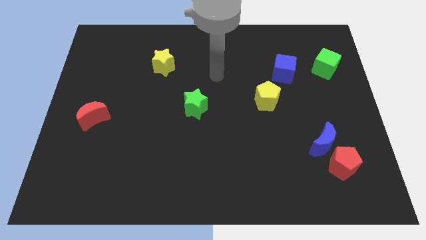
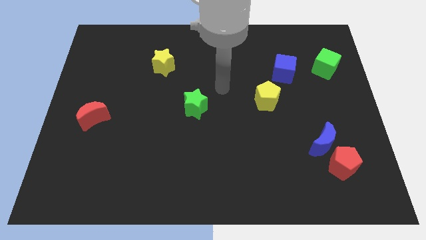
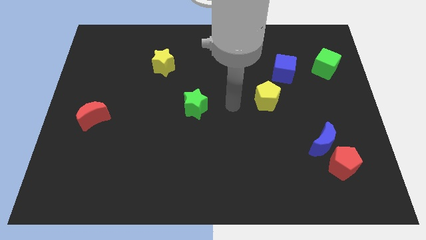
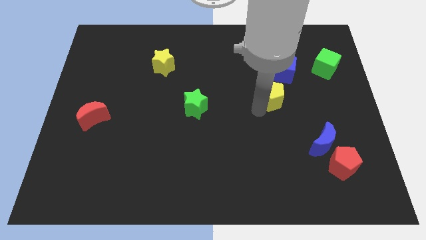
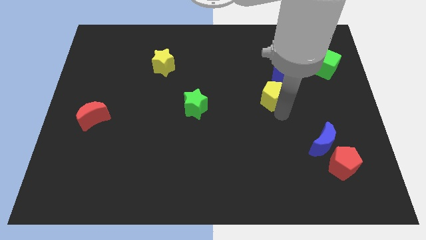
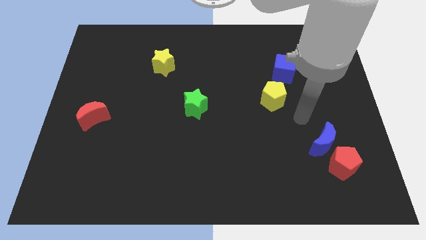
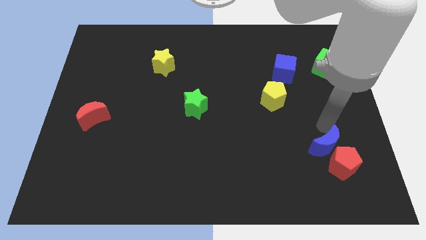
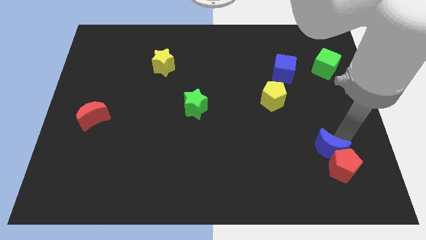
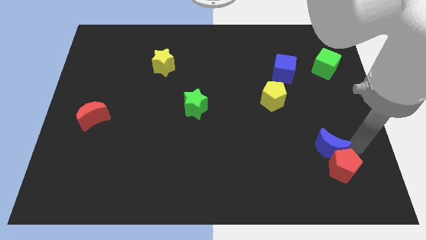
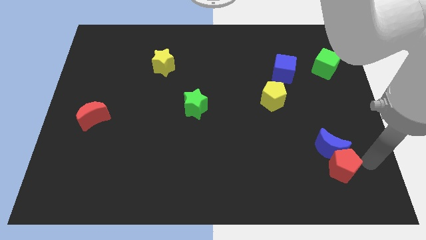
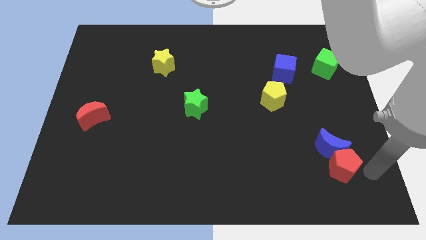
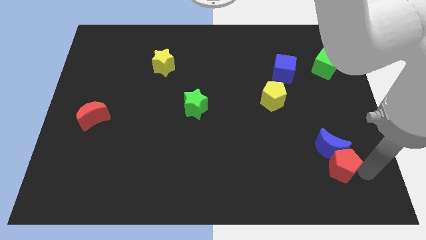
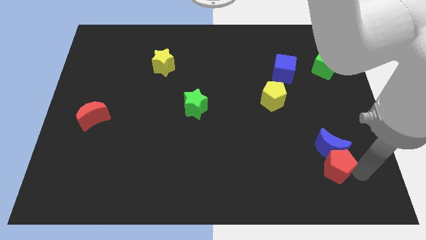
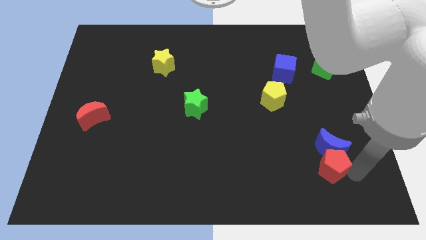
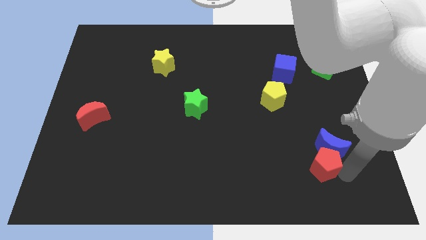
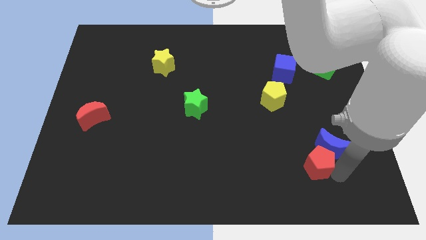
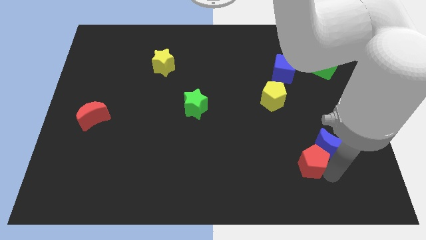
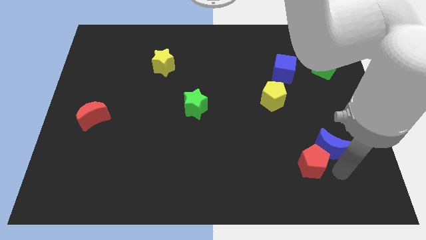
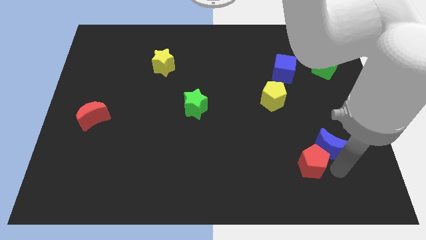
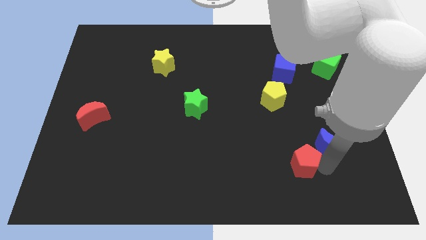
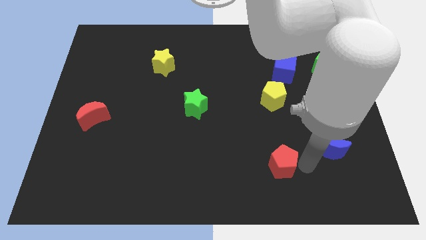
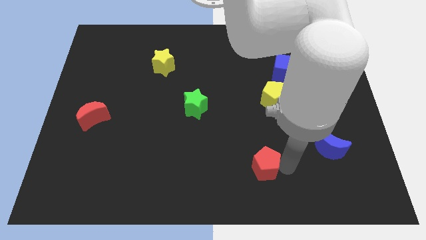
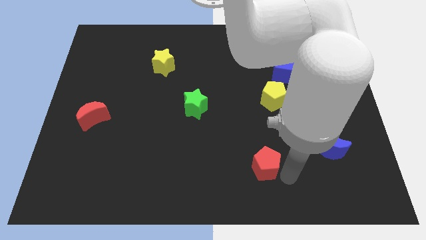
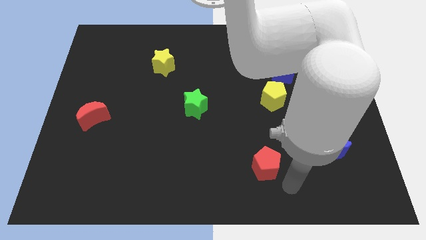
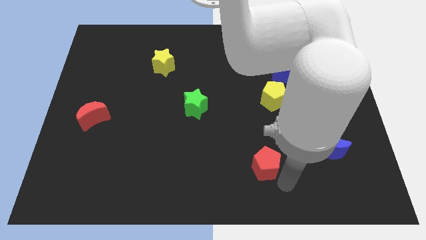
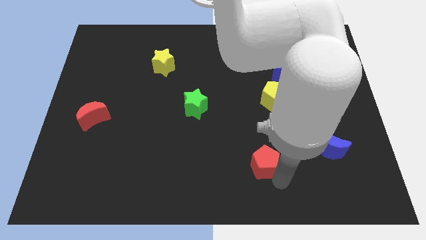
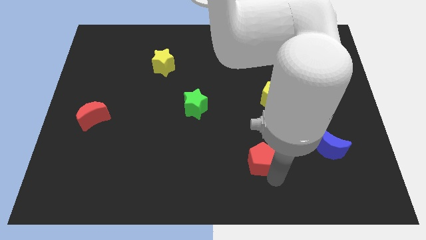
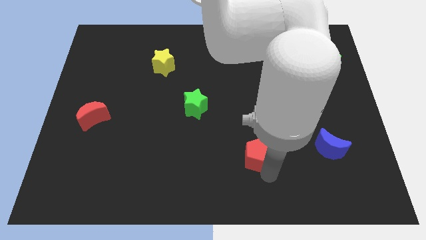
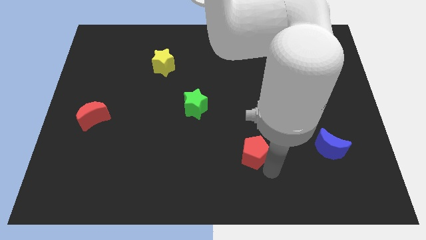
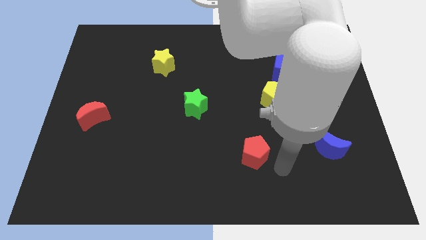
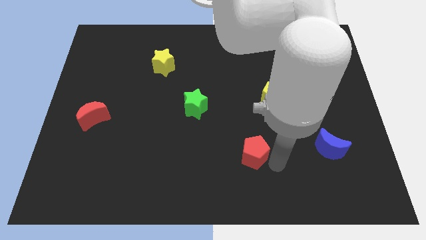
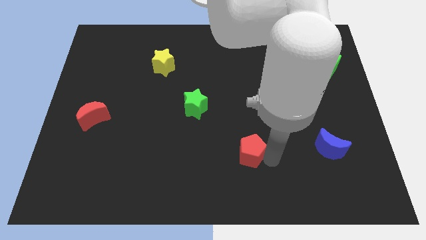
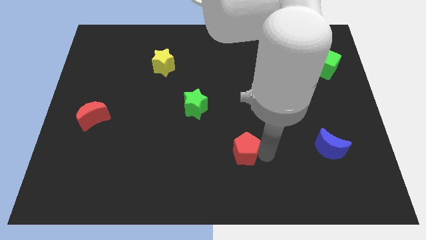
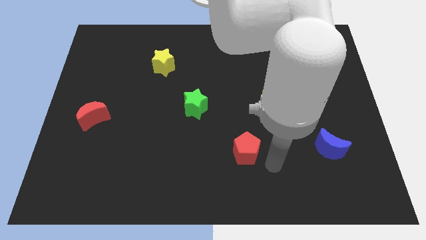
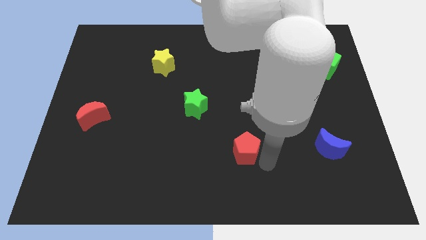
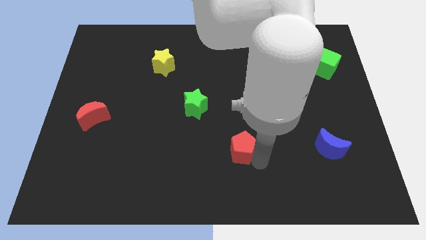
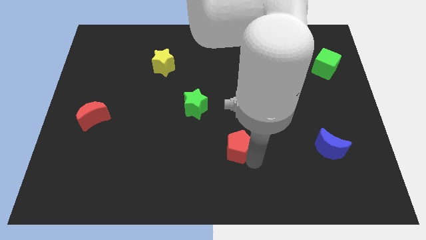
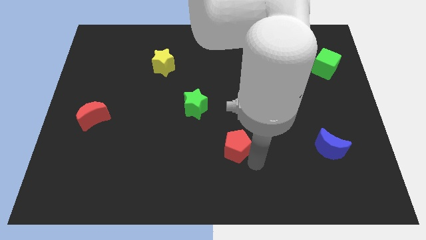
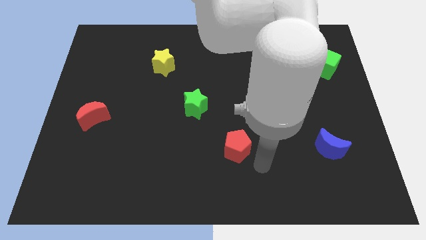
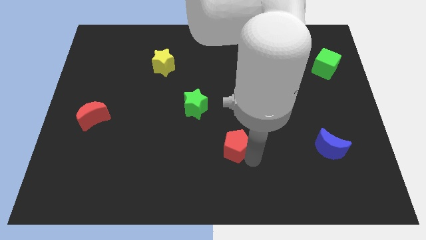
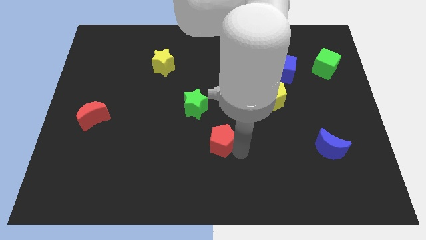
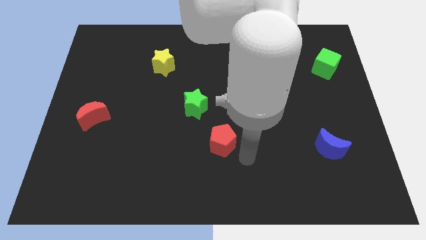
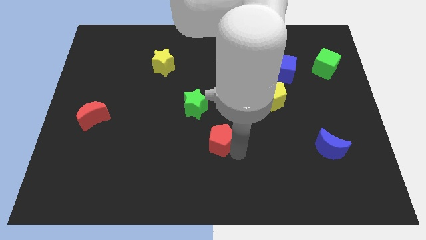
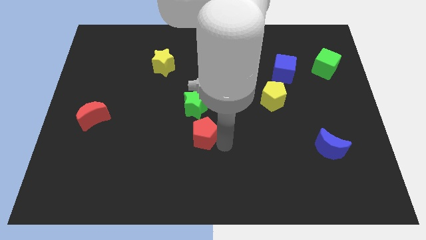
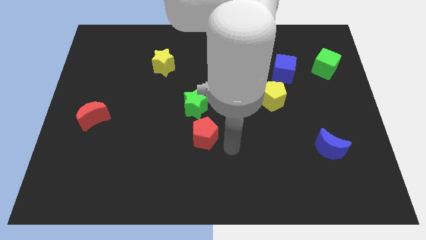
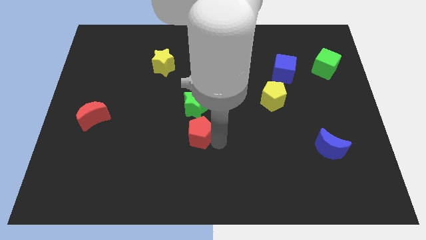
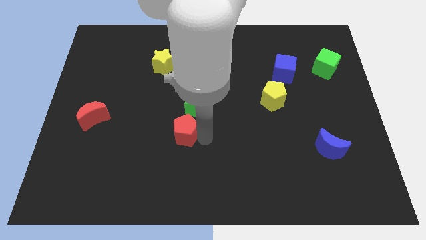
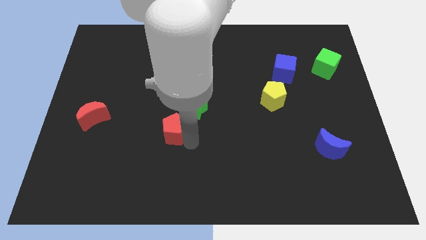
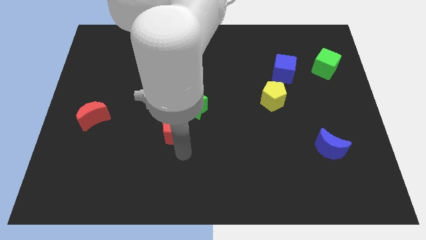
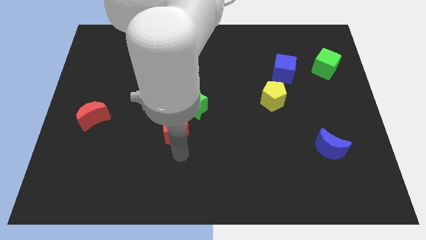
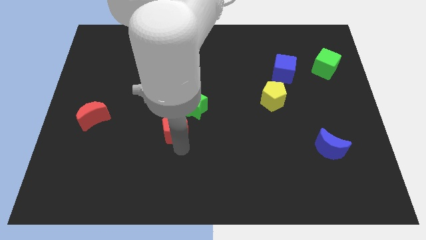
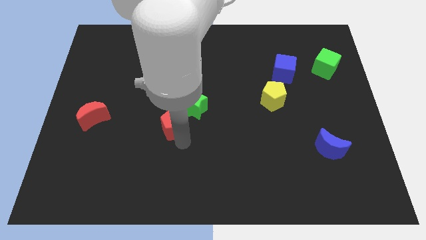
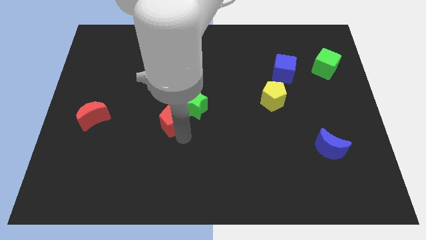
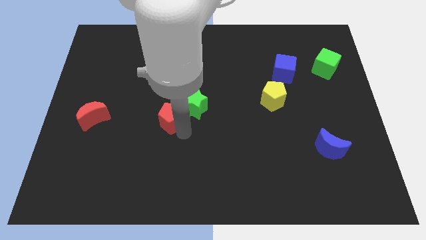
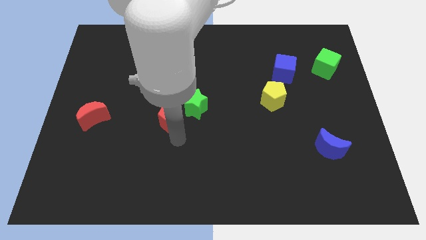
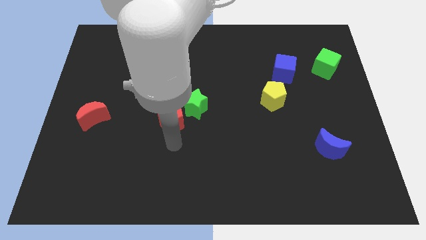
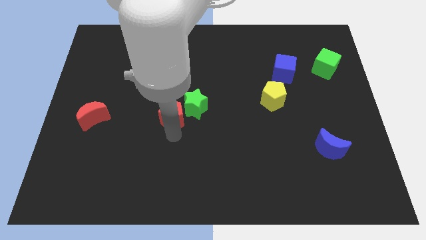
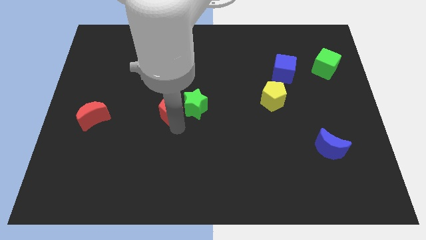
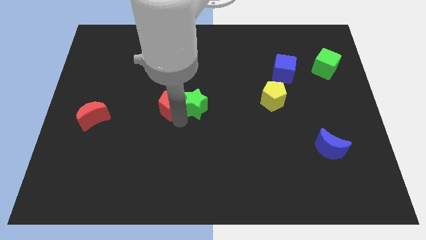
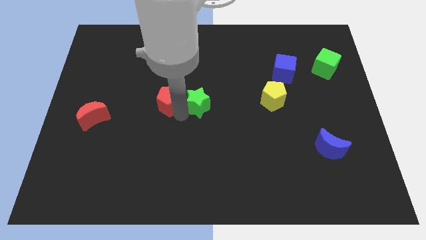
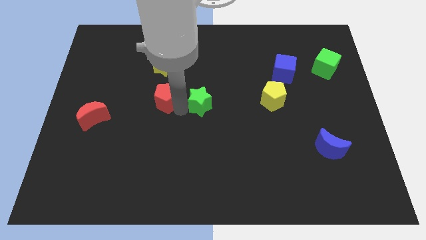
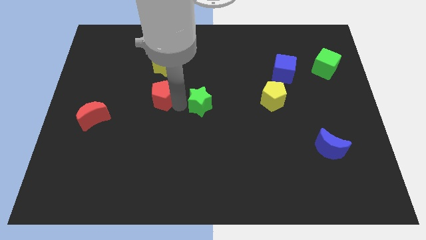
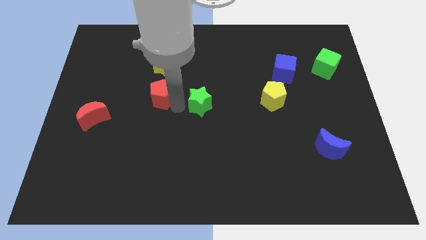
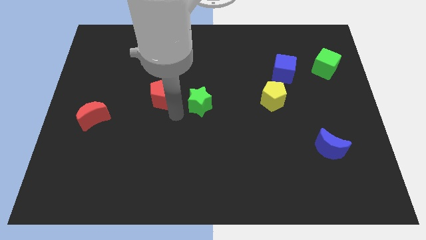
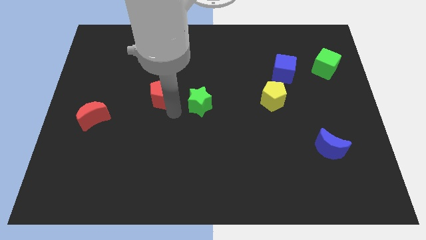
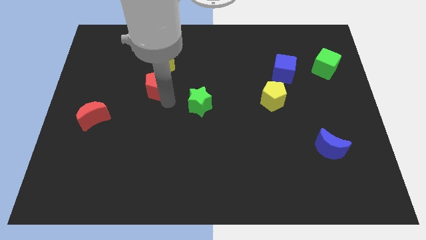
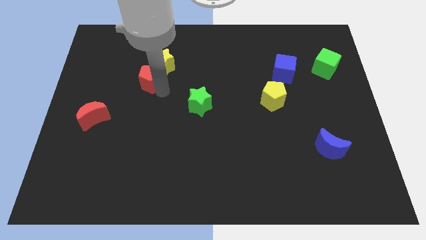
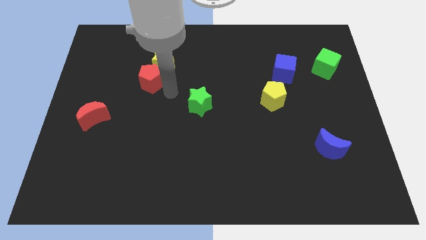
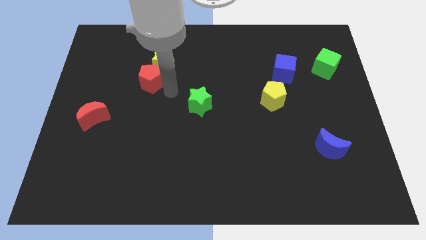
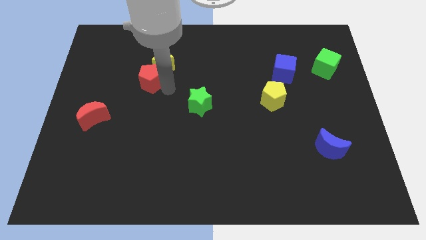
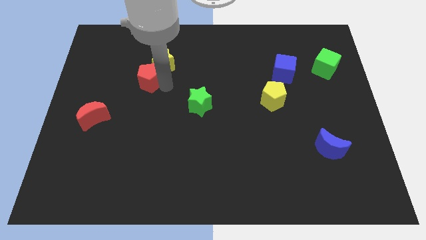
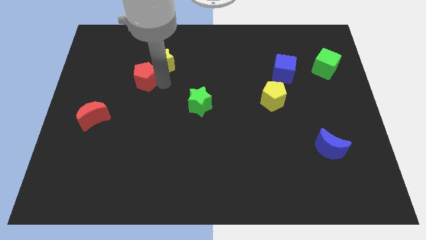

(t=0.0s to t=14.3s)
put the red pentagon just left of the yellow star
